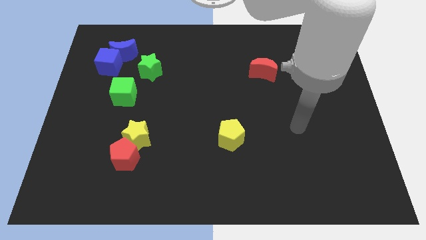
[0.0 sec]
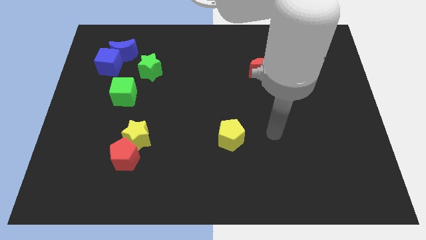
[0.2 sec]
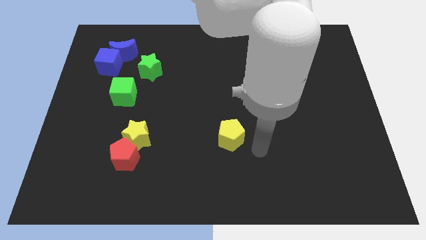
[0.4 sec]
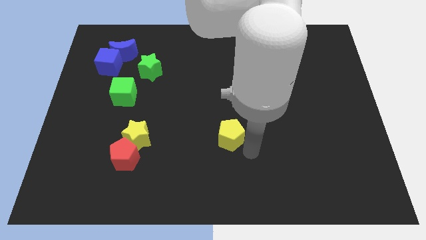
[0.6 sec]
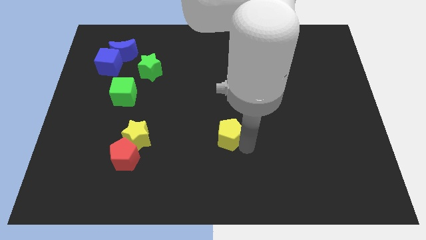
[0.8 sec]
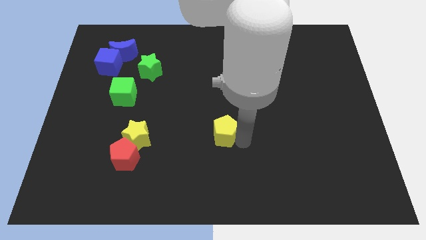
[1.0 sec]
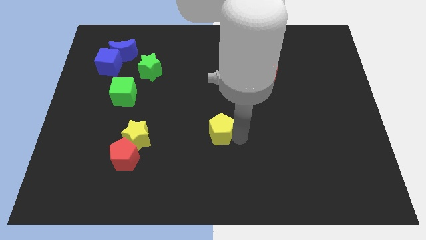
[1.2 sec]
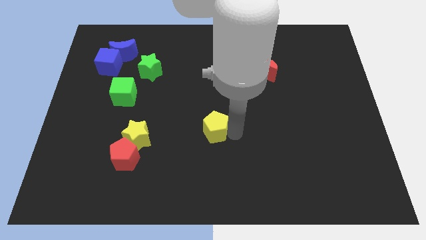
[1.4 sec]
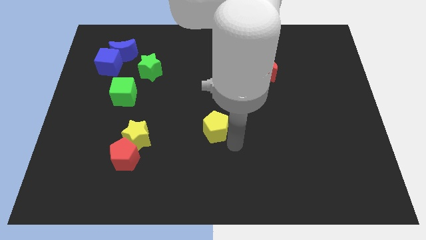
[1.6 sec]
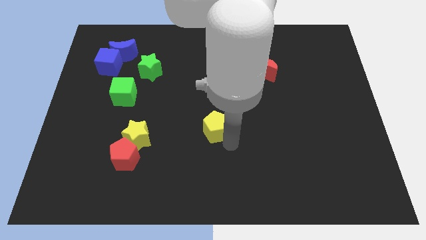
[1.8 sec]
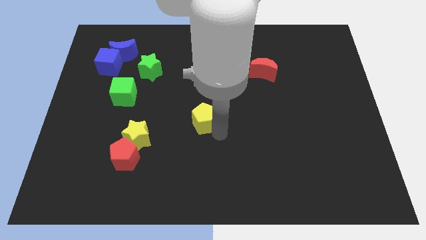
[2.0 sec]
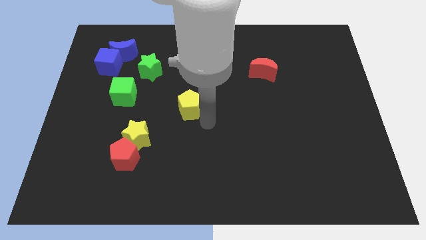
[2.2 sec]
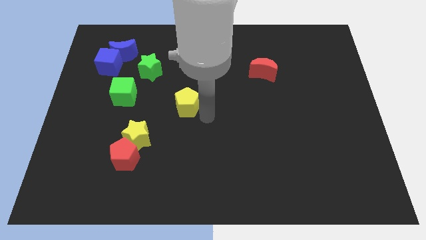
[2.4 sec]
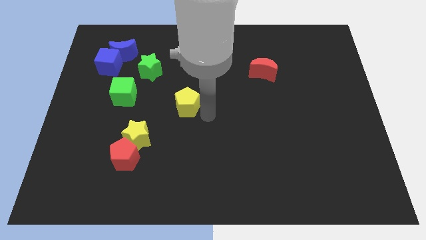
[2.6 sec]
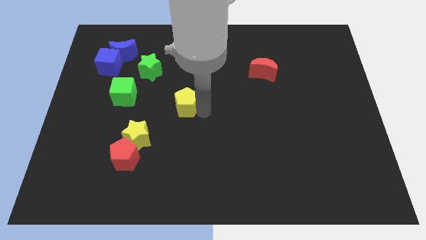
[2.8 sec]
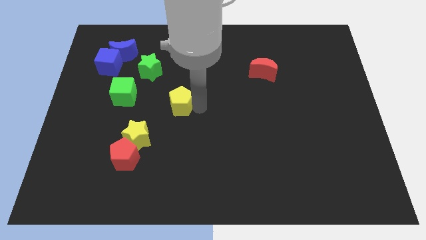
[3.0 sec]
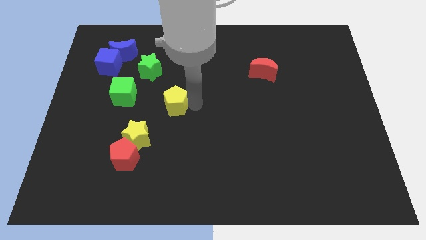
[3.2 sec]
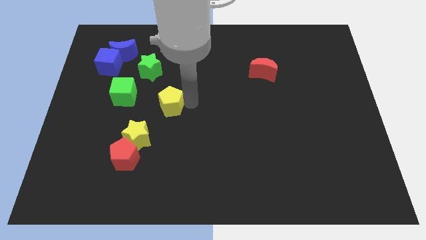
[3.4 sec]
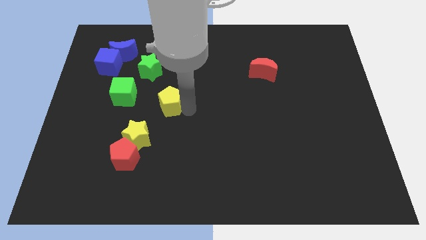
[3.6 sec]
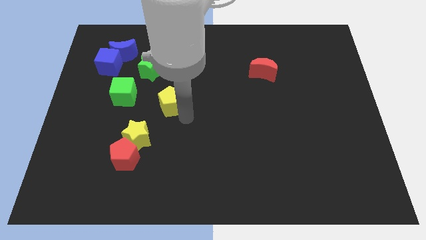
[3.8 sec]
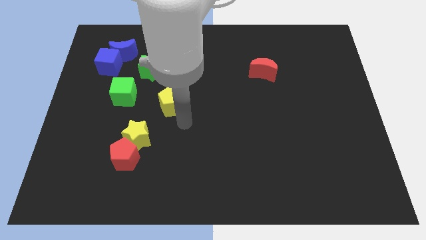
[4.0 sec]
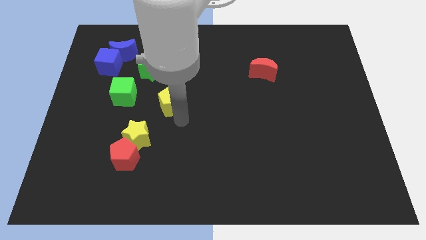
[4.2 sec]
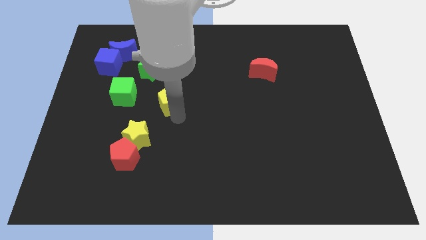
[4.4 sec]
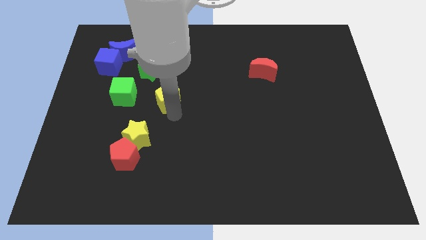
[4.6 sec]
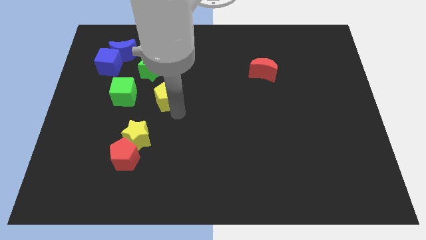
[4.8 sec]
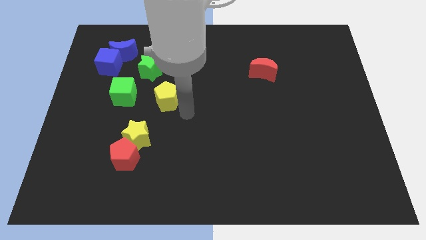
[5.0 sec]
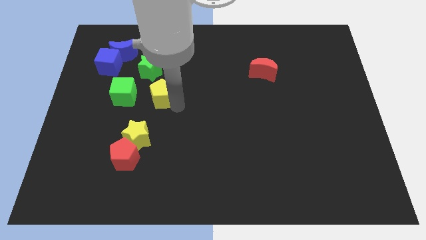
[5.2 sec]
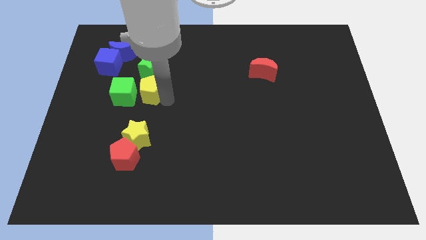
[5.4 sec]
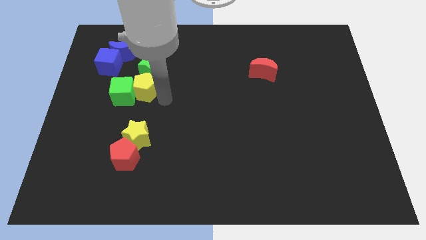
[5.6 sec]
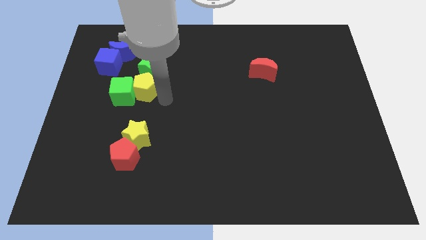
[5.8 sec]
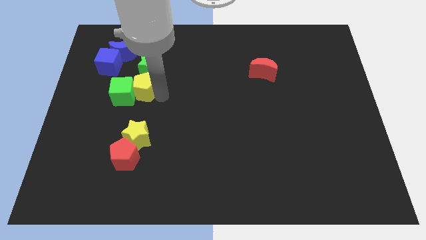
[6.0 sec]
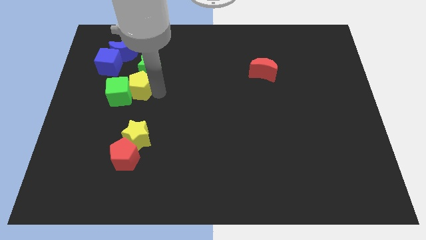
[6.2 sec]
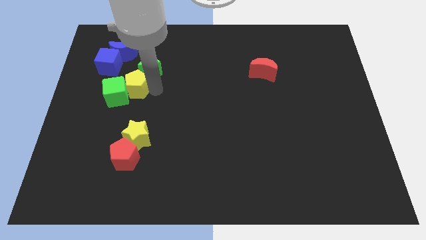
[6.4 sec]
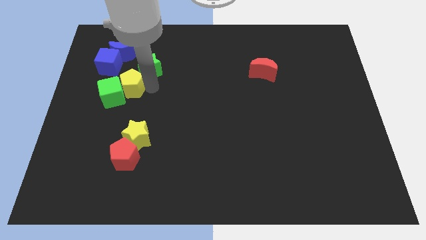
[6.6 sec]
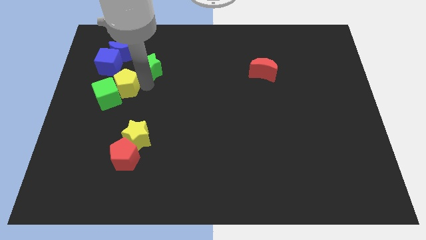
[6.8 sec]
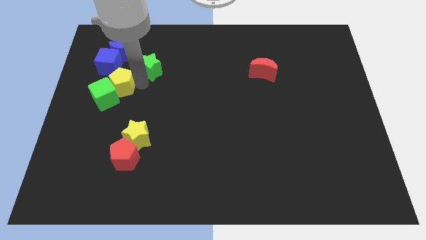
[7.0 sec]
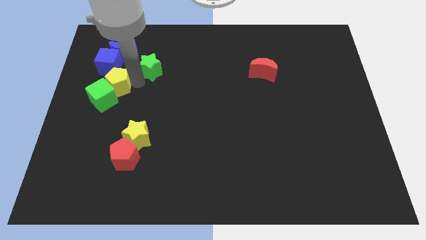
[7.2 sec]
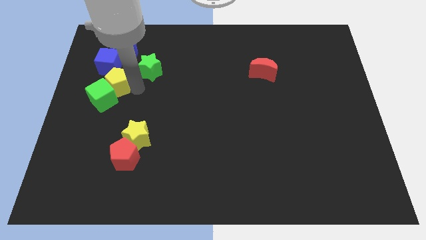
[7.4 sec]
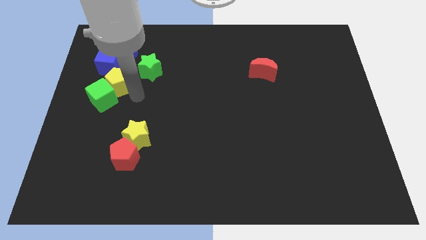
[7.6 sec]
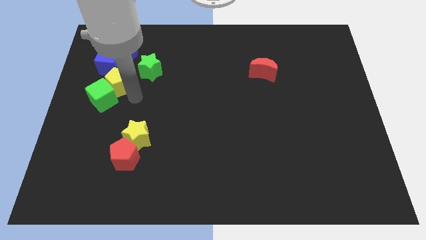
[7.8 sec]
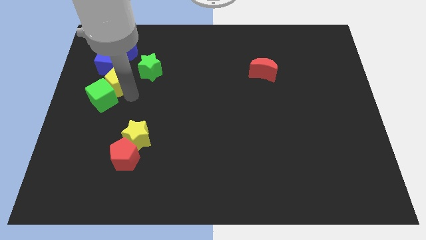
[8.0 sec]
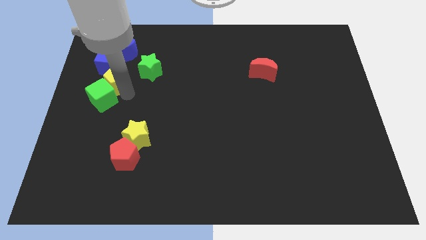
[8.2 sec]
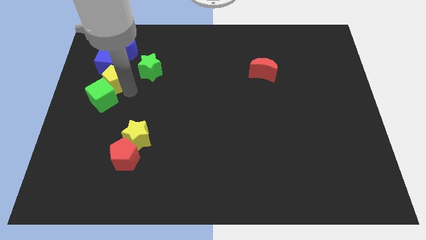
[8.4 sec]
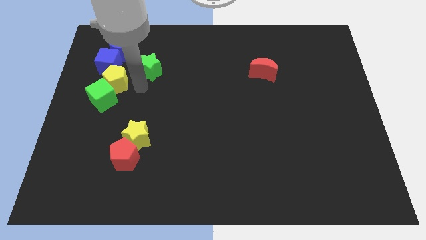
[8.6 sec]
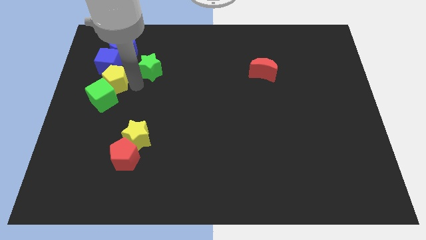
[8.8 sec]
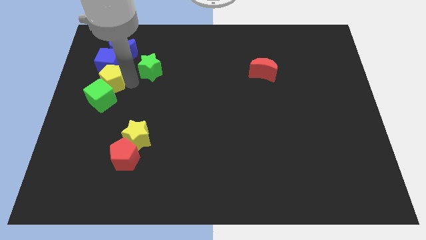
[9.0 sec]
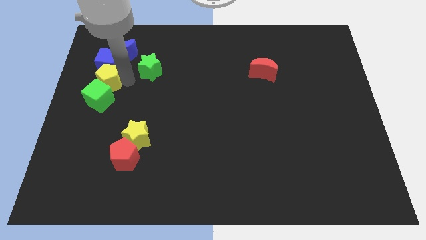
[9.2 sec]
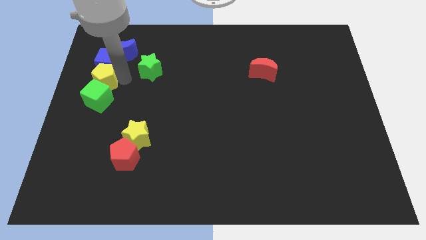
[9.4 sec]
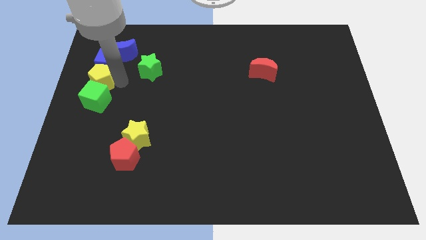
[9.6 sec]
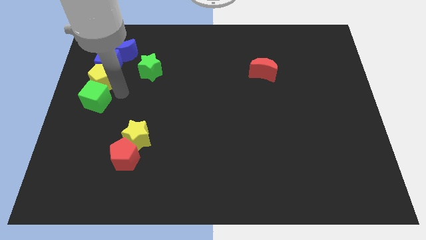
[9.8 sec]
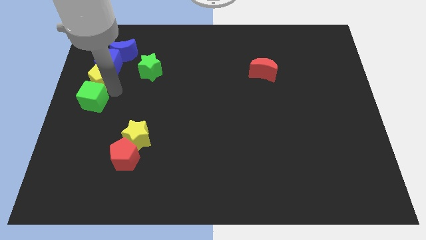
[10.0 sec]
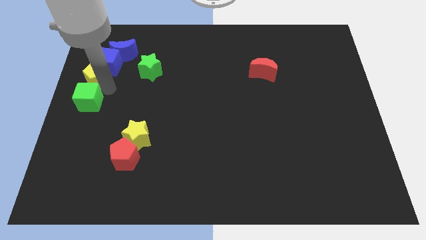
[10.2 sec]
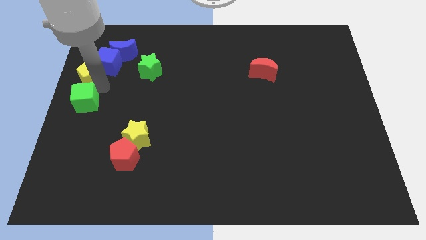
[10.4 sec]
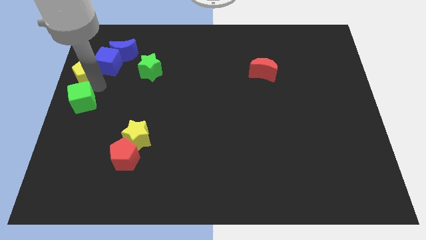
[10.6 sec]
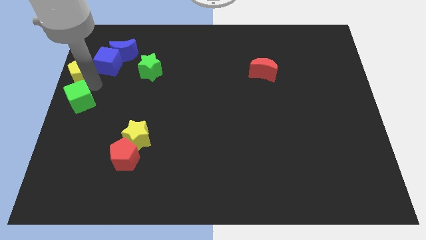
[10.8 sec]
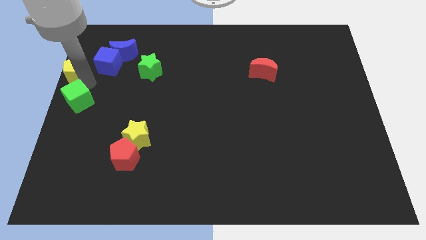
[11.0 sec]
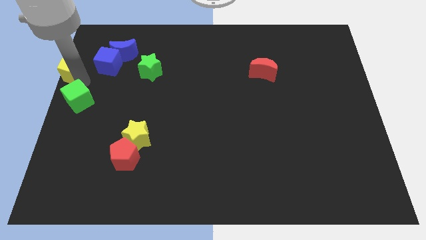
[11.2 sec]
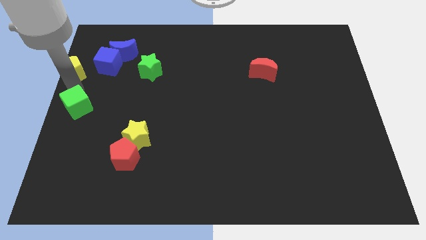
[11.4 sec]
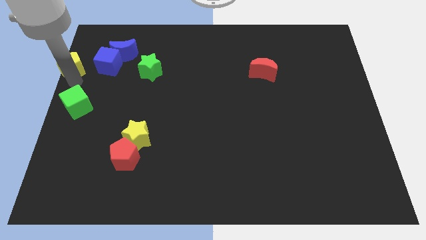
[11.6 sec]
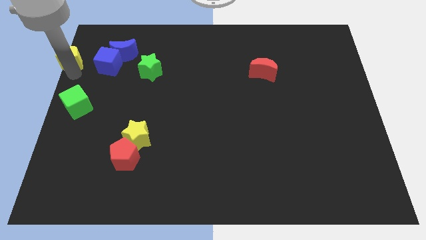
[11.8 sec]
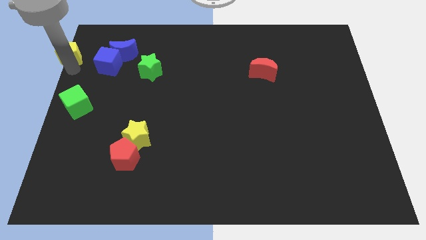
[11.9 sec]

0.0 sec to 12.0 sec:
put the yellow pentagon to the upper left corner

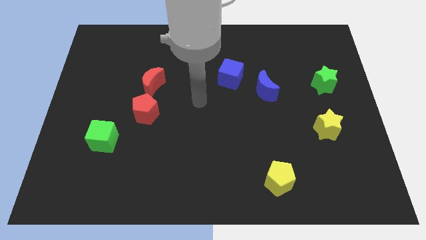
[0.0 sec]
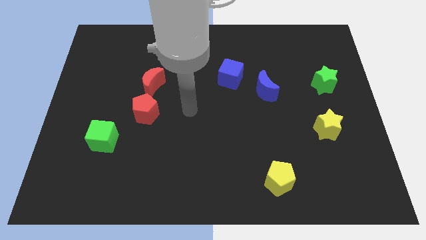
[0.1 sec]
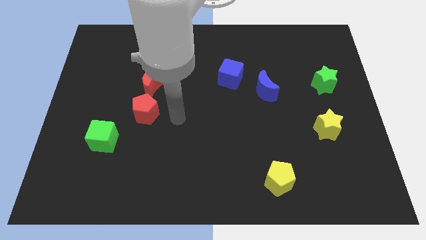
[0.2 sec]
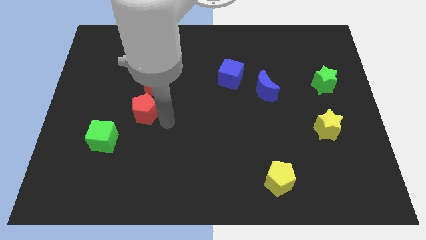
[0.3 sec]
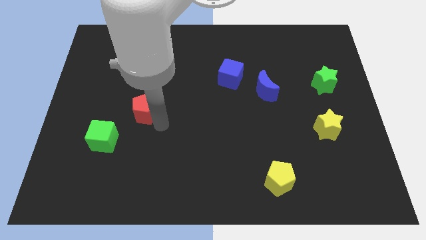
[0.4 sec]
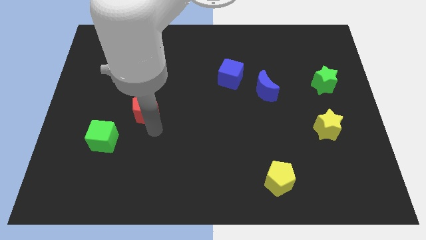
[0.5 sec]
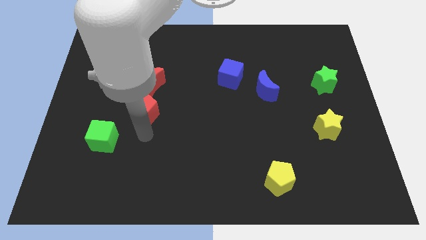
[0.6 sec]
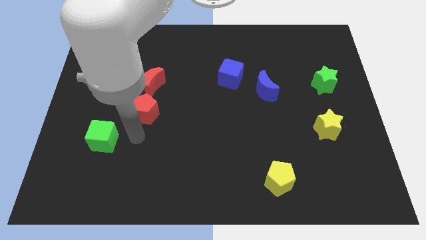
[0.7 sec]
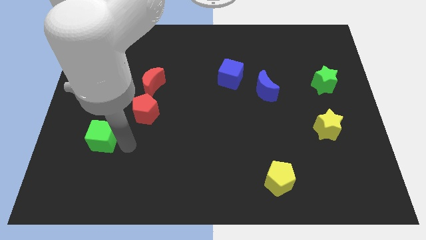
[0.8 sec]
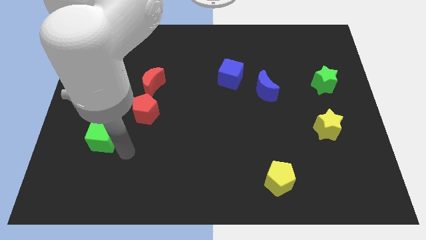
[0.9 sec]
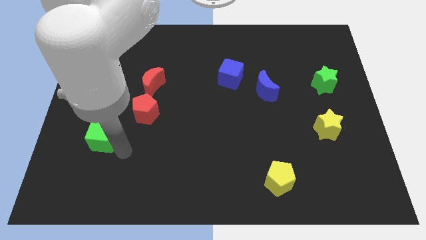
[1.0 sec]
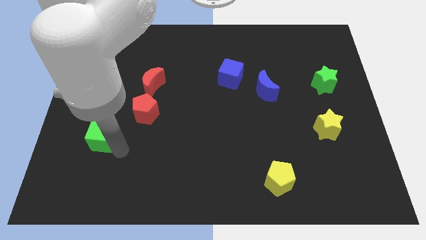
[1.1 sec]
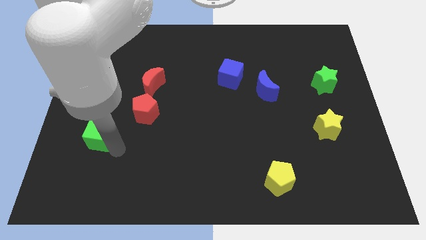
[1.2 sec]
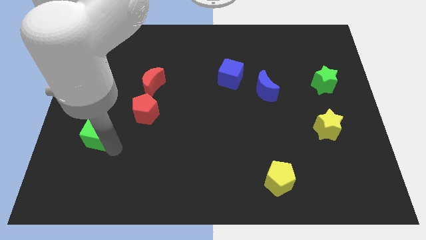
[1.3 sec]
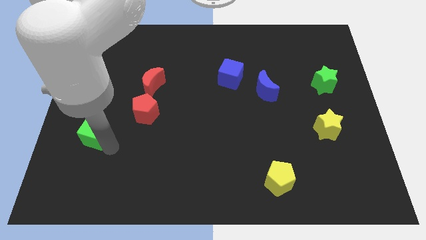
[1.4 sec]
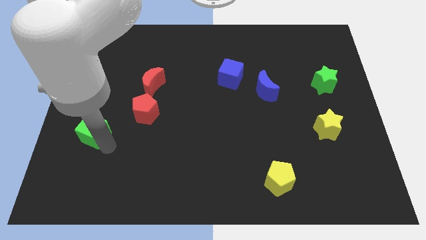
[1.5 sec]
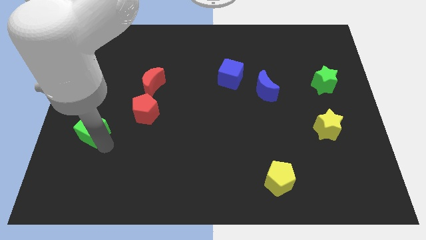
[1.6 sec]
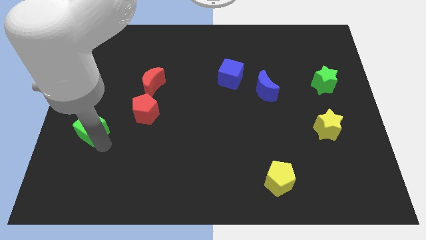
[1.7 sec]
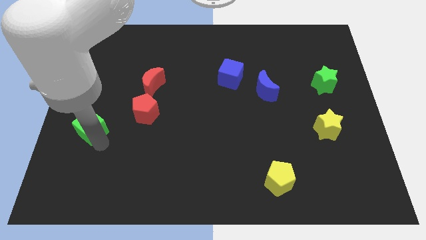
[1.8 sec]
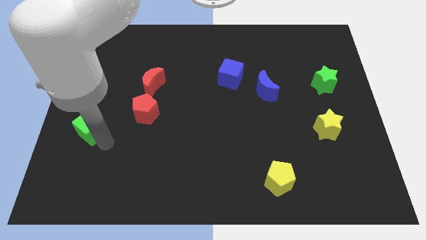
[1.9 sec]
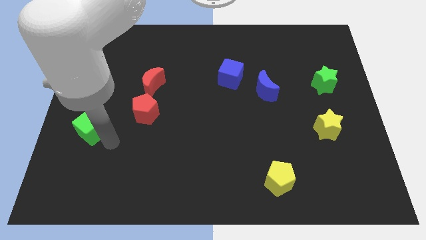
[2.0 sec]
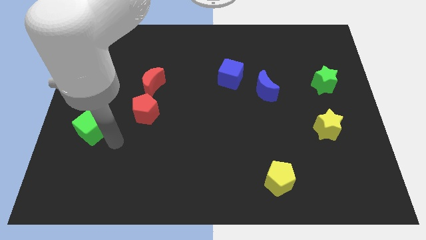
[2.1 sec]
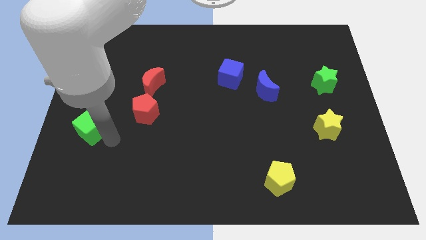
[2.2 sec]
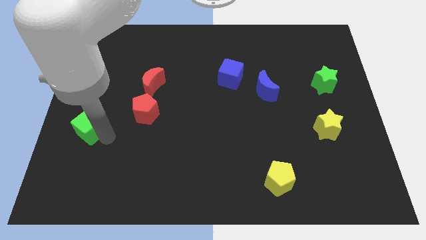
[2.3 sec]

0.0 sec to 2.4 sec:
put the green cube to the left side of the board
